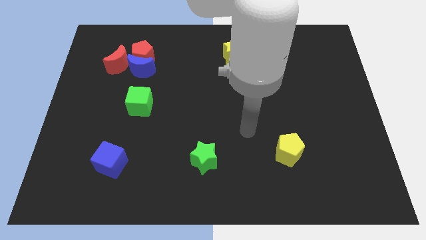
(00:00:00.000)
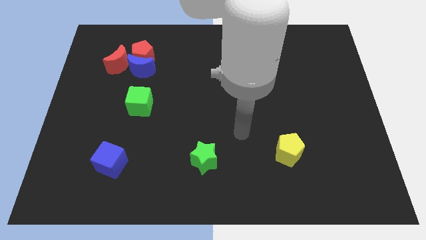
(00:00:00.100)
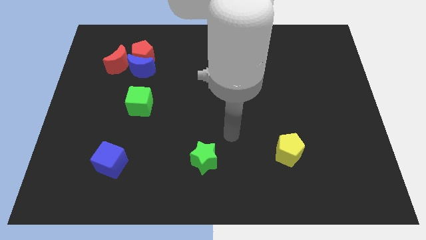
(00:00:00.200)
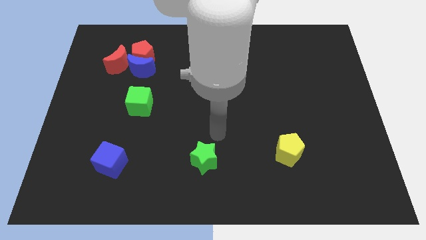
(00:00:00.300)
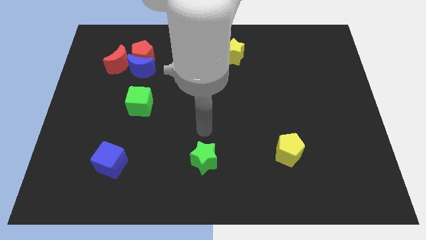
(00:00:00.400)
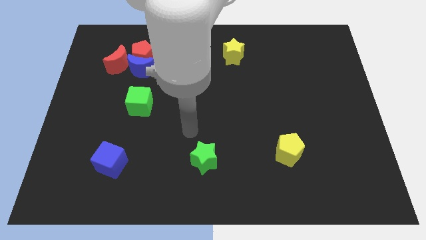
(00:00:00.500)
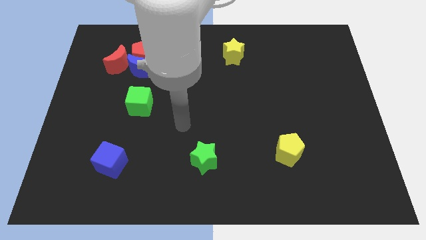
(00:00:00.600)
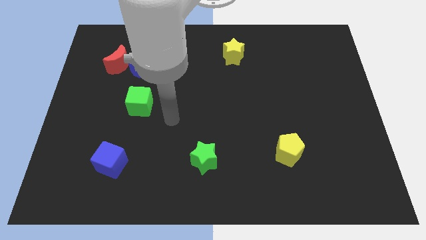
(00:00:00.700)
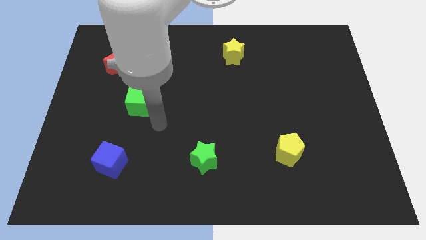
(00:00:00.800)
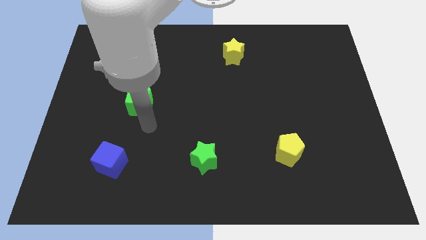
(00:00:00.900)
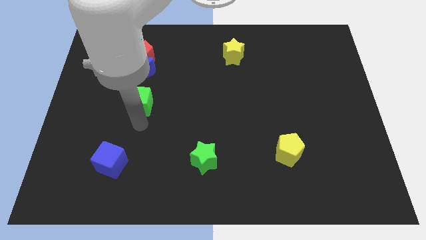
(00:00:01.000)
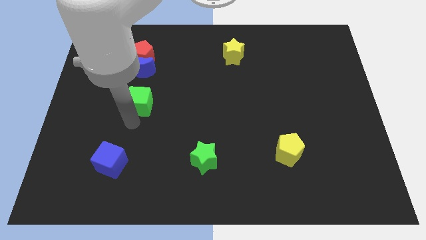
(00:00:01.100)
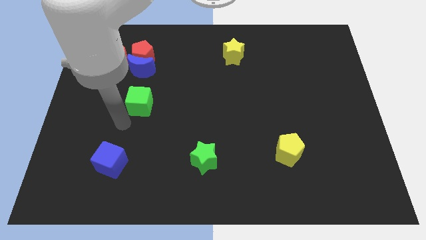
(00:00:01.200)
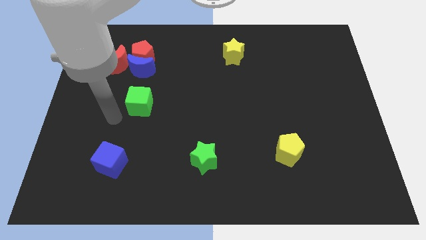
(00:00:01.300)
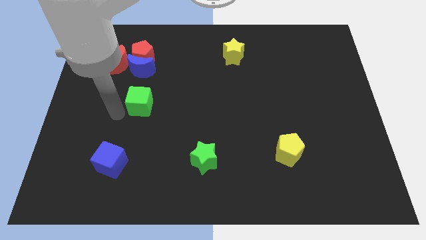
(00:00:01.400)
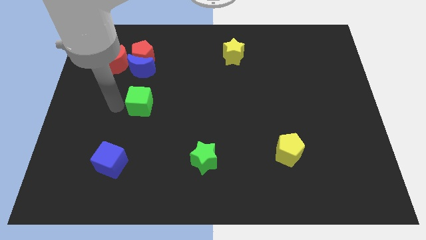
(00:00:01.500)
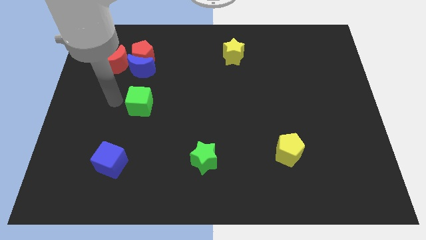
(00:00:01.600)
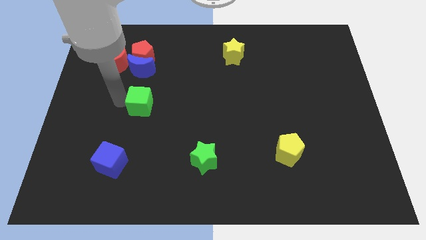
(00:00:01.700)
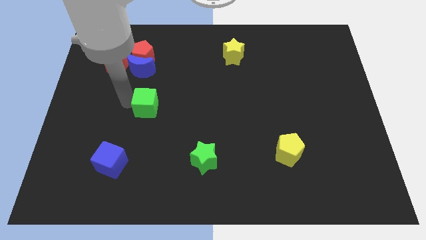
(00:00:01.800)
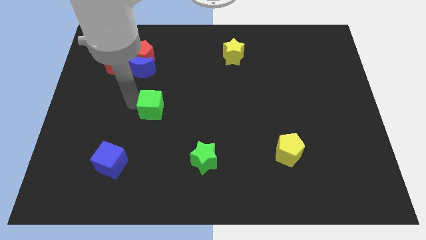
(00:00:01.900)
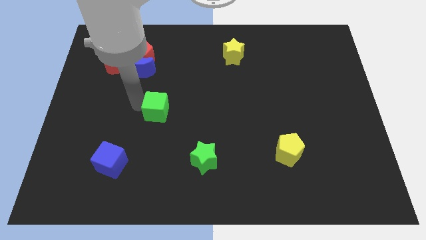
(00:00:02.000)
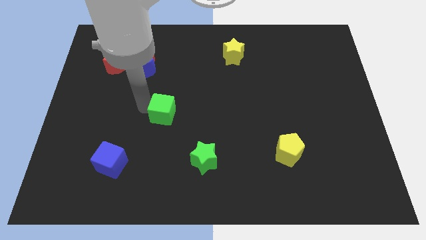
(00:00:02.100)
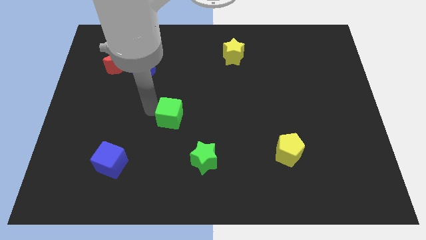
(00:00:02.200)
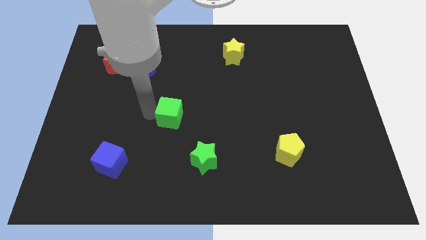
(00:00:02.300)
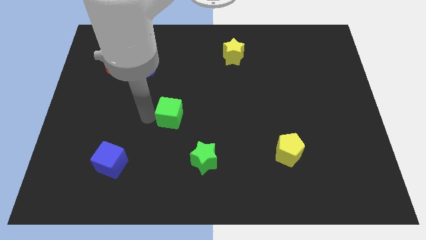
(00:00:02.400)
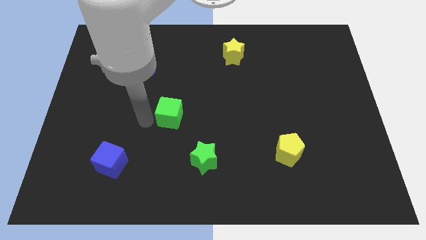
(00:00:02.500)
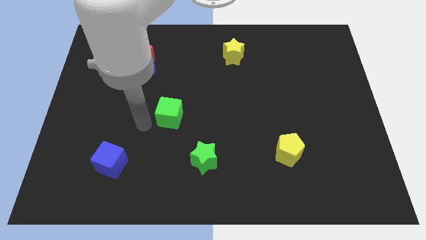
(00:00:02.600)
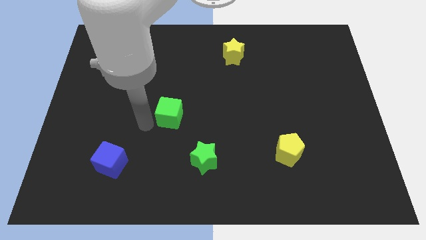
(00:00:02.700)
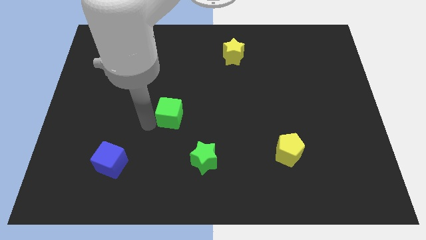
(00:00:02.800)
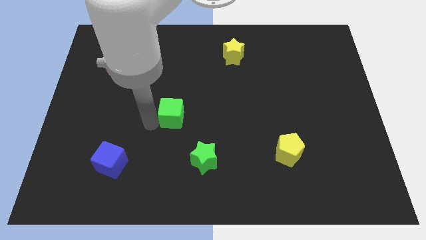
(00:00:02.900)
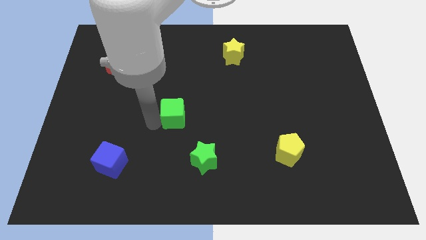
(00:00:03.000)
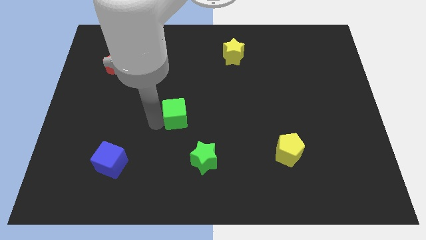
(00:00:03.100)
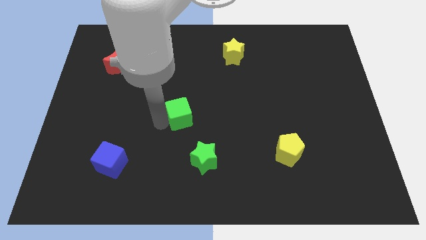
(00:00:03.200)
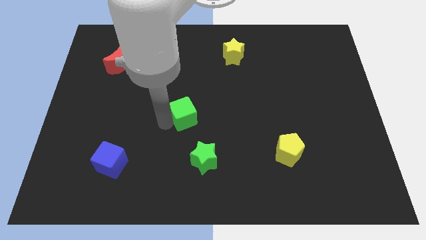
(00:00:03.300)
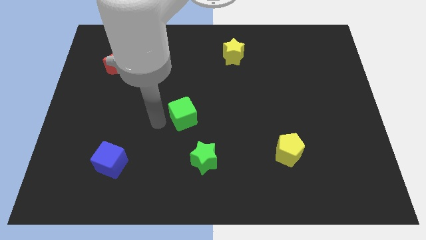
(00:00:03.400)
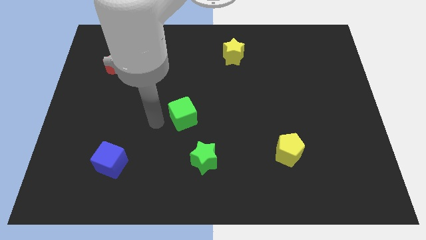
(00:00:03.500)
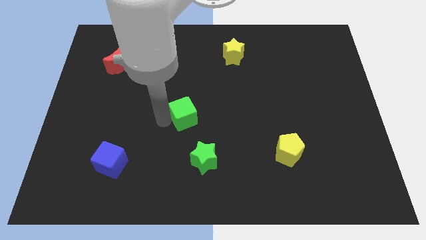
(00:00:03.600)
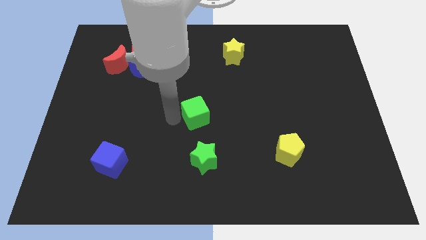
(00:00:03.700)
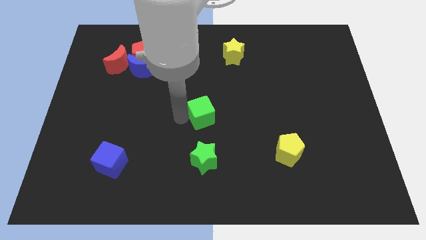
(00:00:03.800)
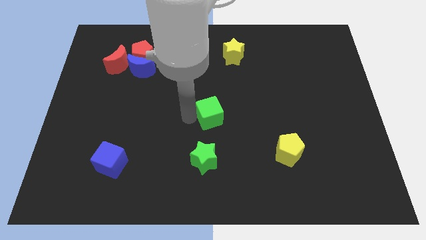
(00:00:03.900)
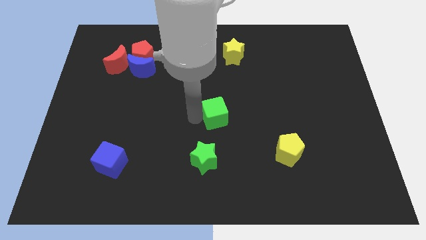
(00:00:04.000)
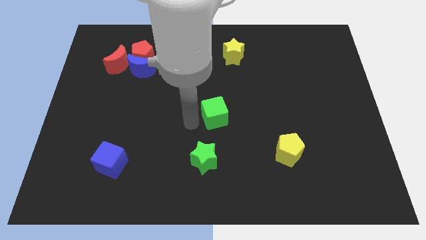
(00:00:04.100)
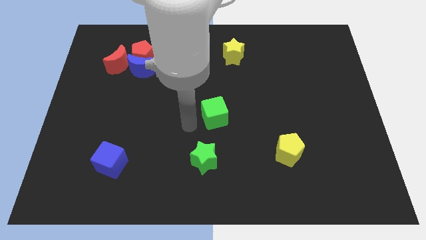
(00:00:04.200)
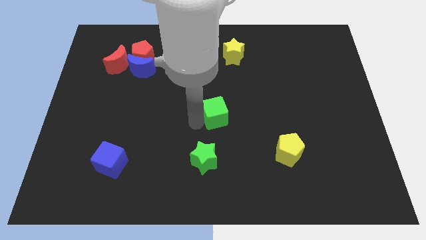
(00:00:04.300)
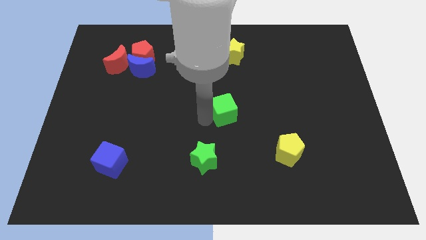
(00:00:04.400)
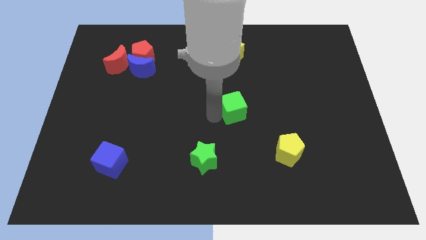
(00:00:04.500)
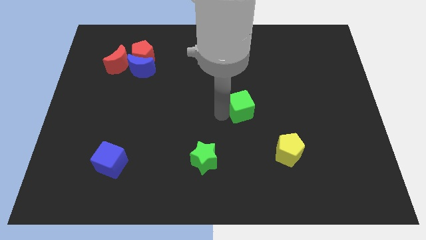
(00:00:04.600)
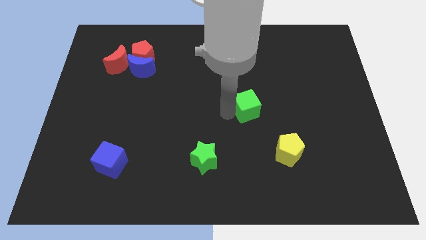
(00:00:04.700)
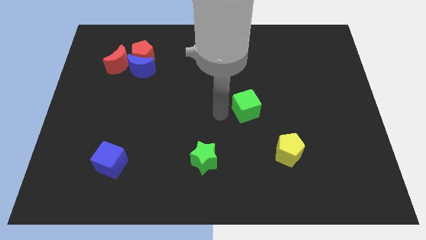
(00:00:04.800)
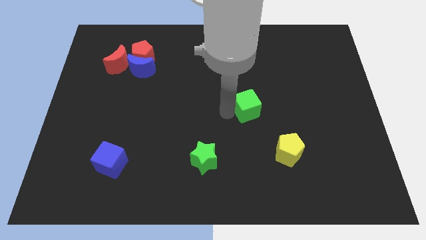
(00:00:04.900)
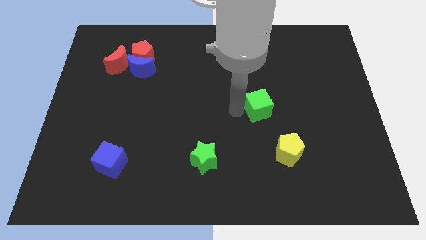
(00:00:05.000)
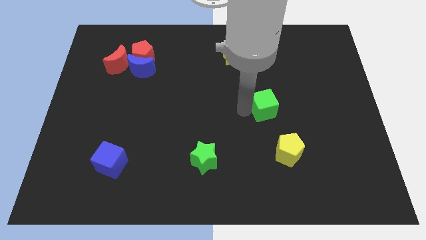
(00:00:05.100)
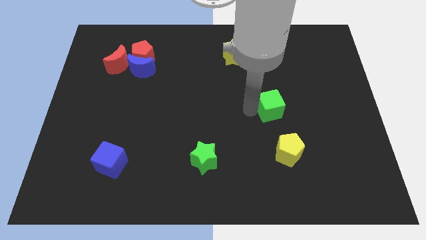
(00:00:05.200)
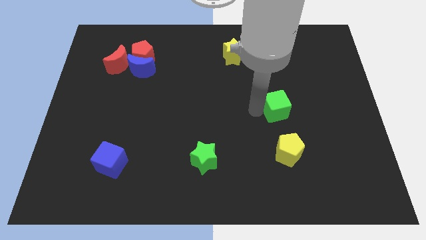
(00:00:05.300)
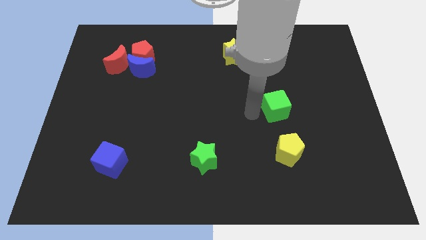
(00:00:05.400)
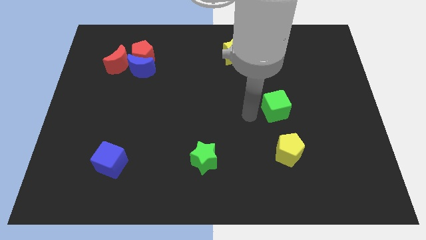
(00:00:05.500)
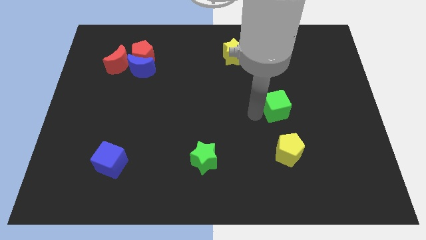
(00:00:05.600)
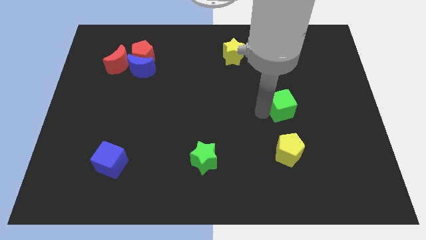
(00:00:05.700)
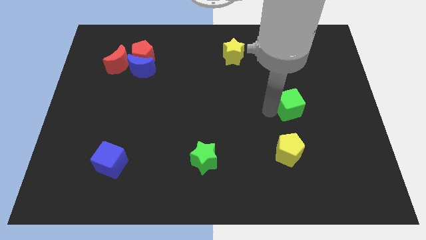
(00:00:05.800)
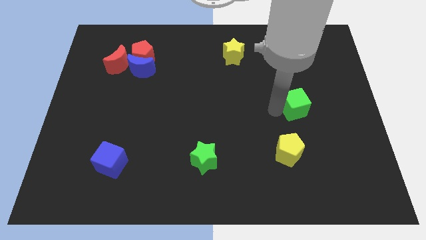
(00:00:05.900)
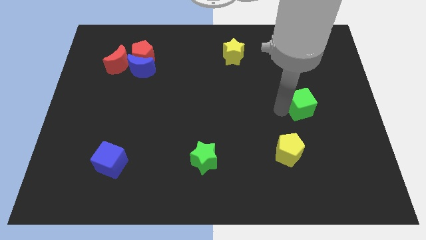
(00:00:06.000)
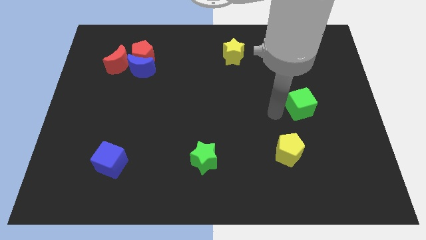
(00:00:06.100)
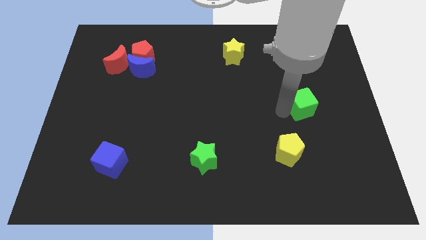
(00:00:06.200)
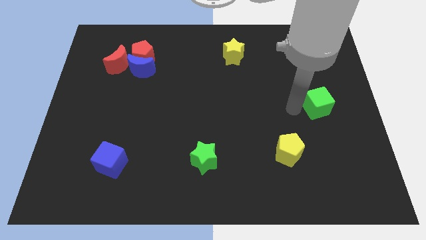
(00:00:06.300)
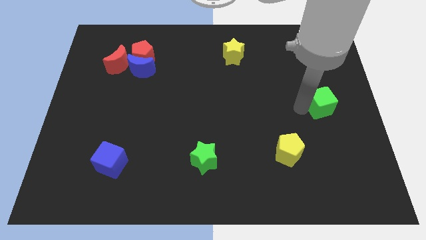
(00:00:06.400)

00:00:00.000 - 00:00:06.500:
slide the green cube to the right side
